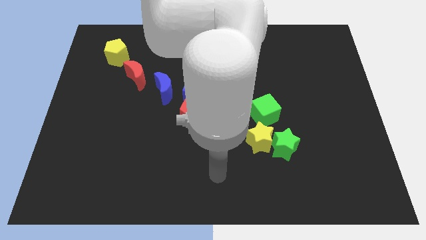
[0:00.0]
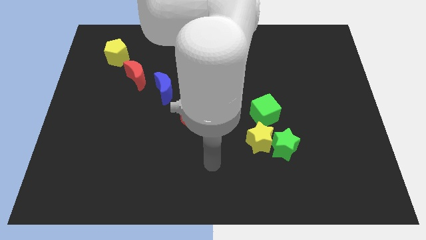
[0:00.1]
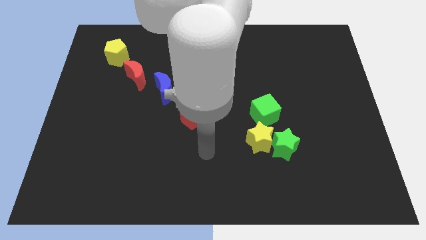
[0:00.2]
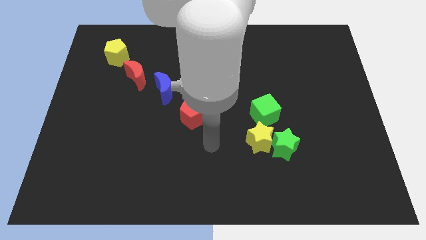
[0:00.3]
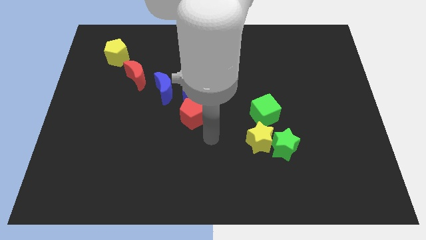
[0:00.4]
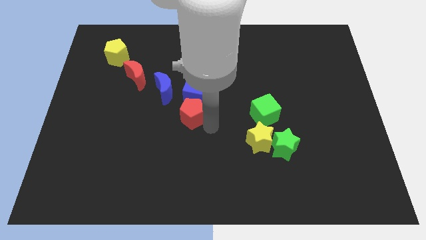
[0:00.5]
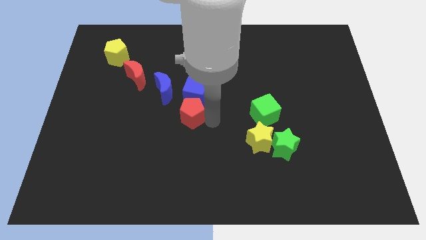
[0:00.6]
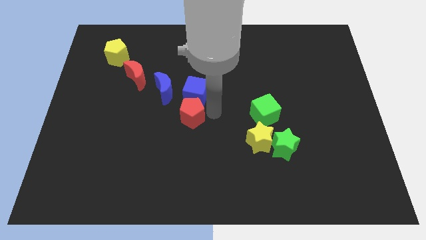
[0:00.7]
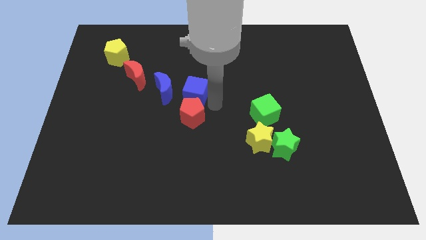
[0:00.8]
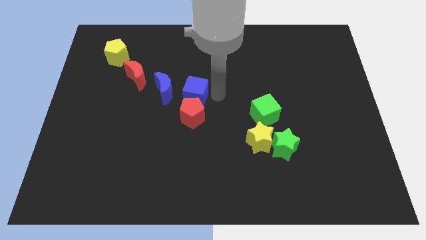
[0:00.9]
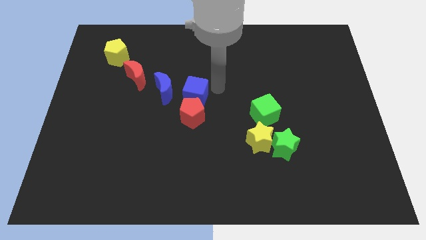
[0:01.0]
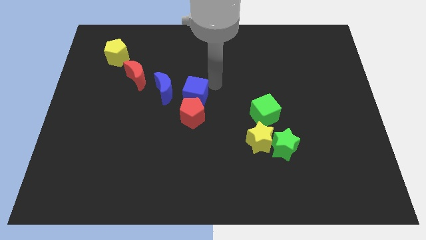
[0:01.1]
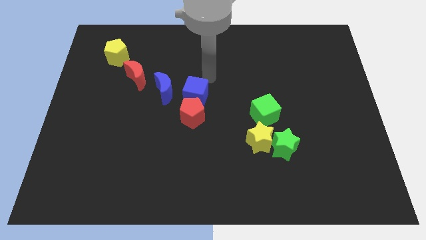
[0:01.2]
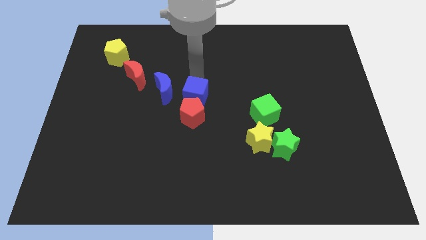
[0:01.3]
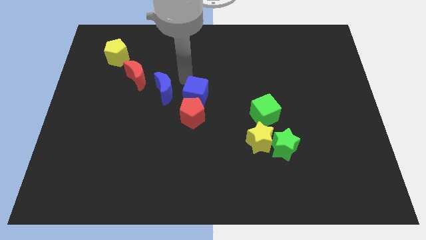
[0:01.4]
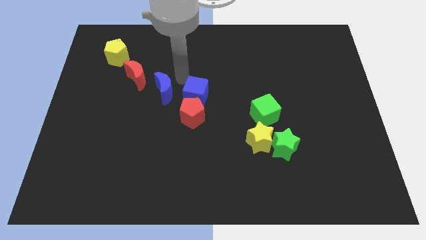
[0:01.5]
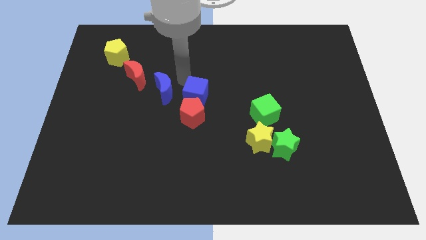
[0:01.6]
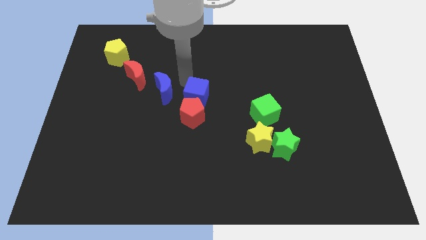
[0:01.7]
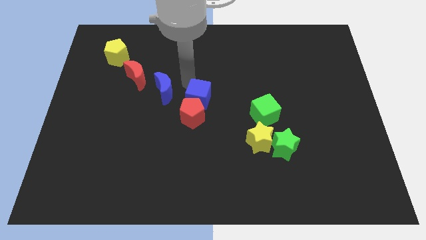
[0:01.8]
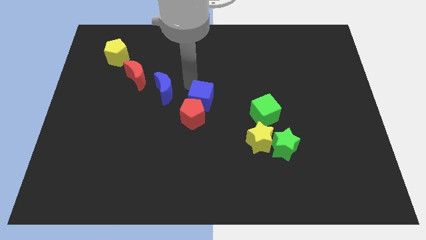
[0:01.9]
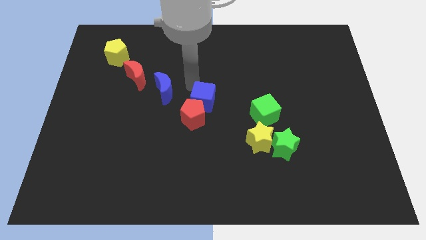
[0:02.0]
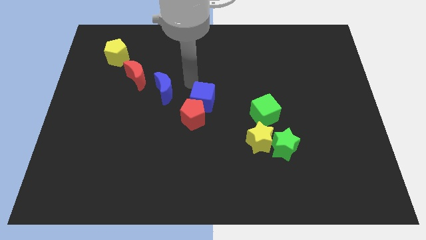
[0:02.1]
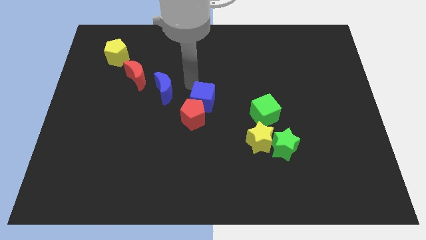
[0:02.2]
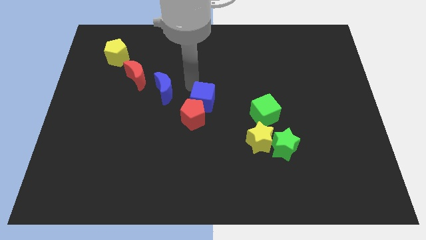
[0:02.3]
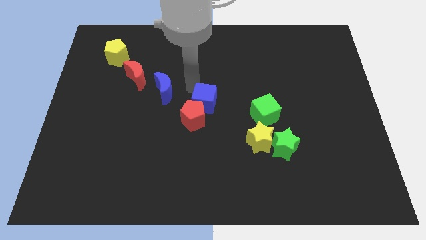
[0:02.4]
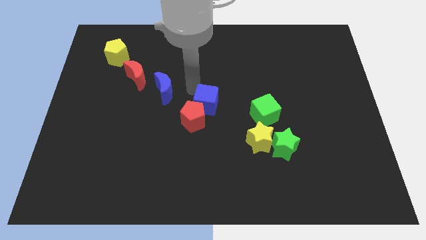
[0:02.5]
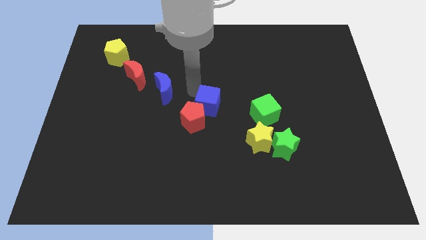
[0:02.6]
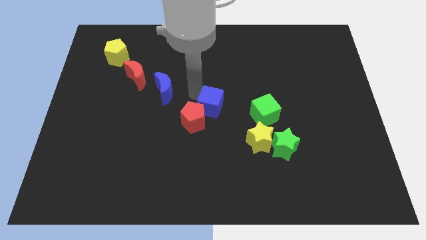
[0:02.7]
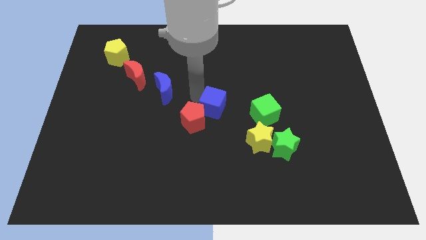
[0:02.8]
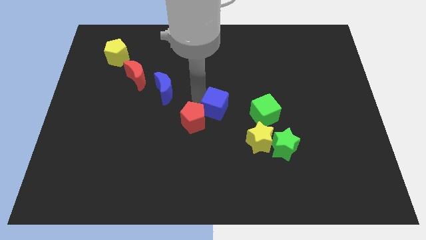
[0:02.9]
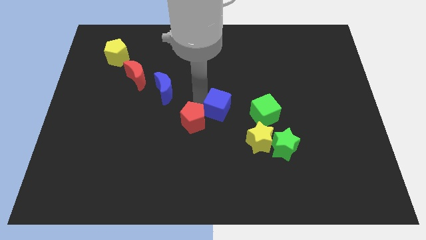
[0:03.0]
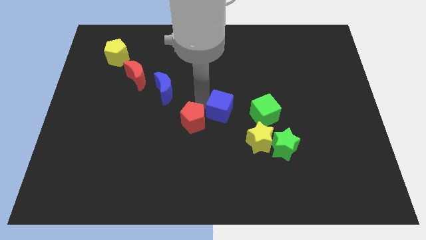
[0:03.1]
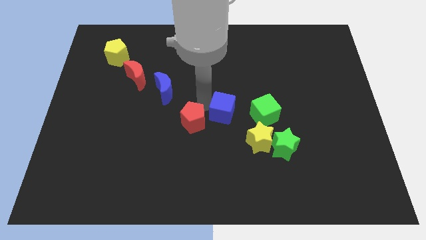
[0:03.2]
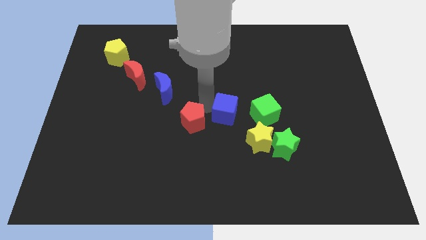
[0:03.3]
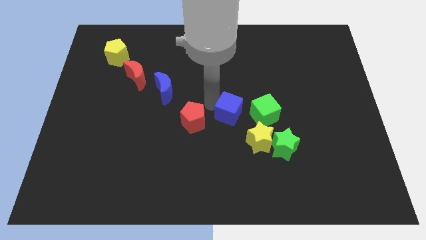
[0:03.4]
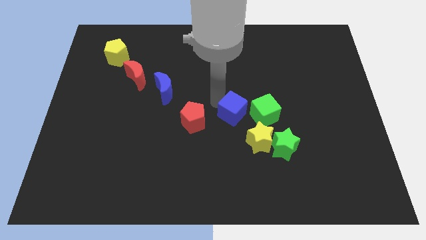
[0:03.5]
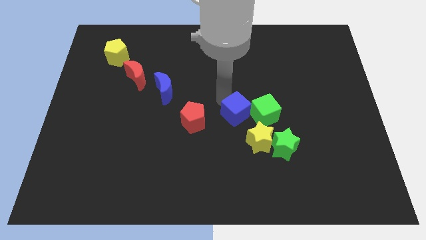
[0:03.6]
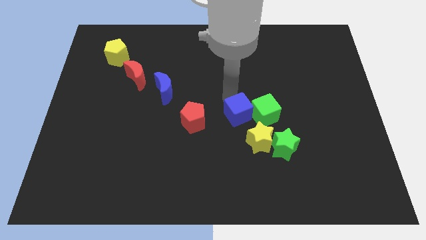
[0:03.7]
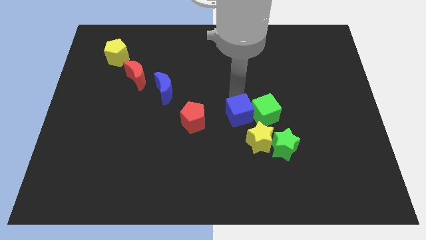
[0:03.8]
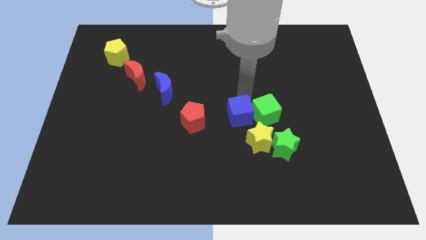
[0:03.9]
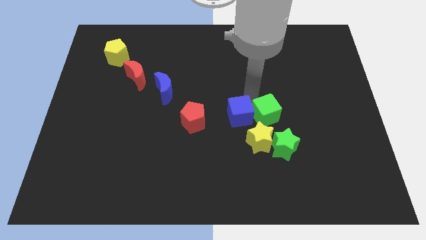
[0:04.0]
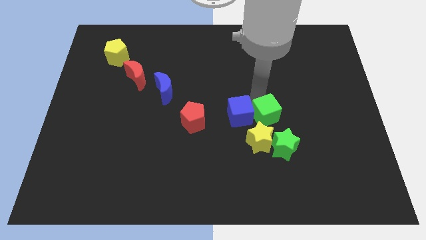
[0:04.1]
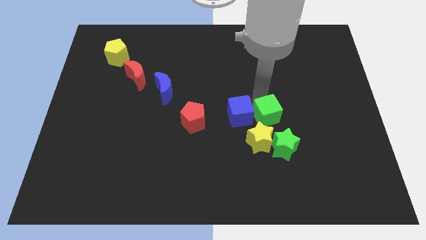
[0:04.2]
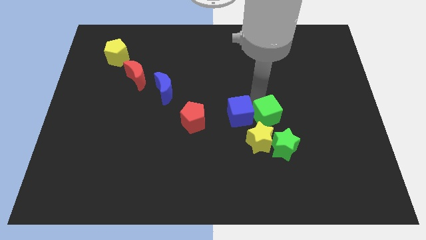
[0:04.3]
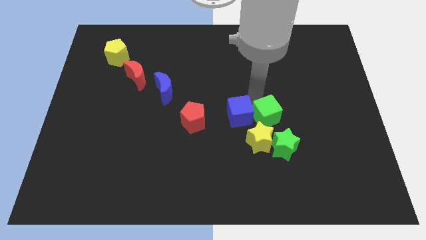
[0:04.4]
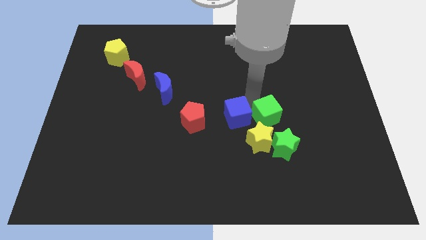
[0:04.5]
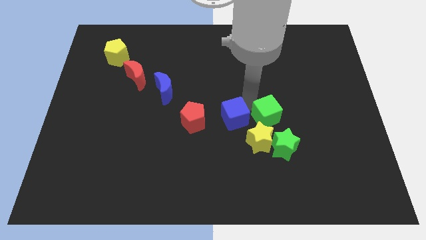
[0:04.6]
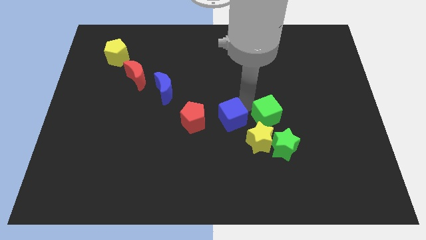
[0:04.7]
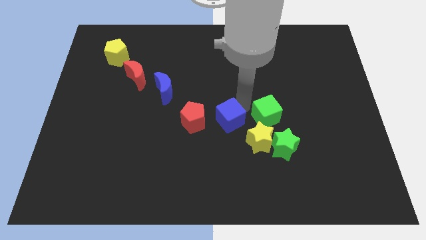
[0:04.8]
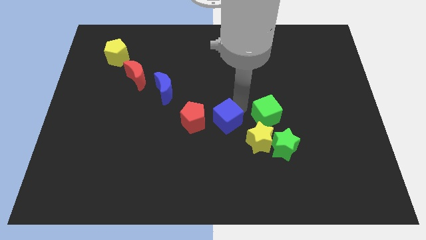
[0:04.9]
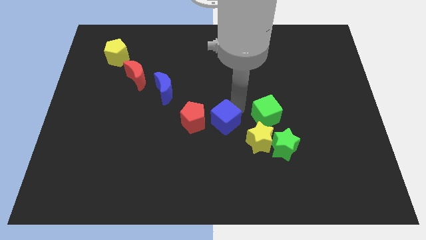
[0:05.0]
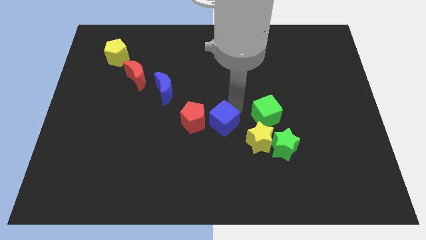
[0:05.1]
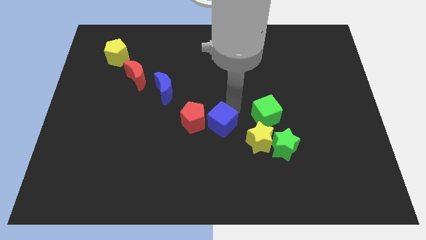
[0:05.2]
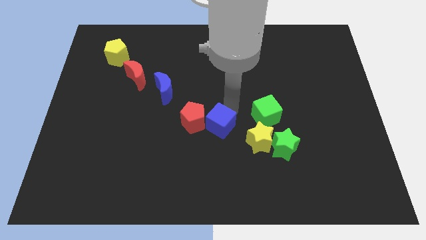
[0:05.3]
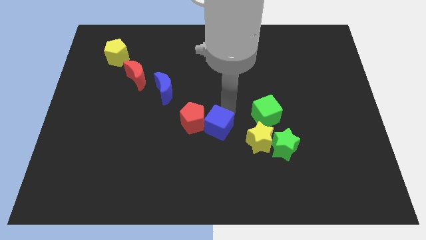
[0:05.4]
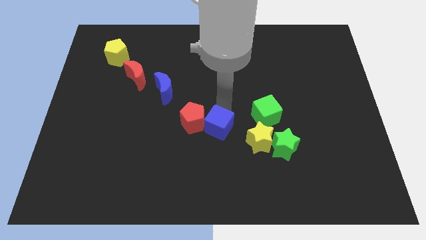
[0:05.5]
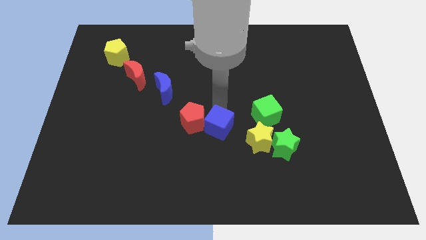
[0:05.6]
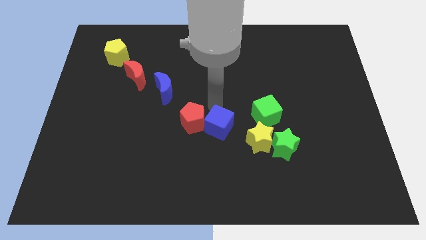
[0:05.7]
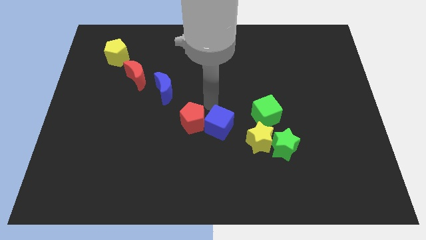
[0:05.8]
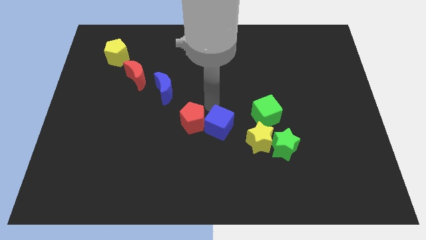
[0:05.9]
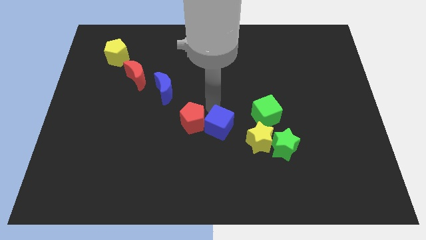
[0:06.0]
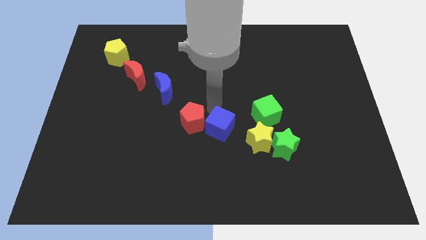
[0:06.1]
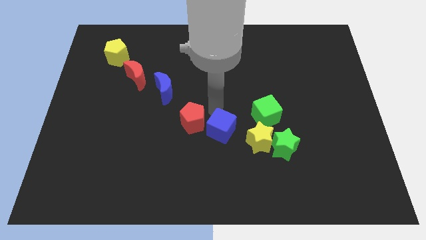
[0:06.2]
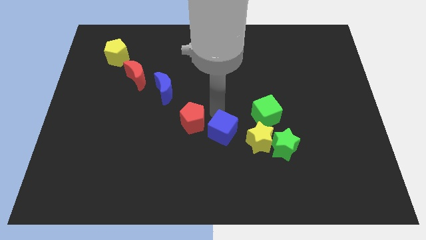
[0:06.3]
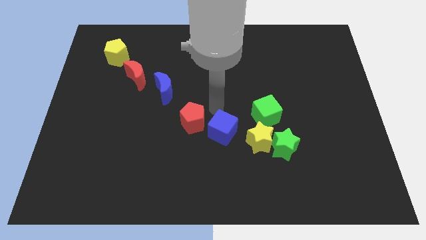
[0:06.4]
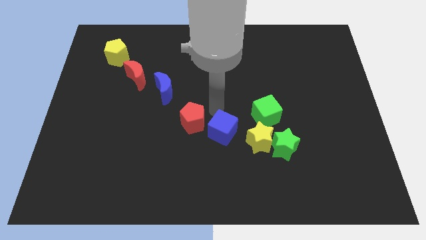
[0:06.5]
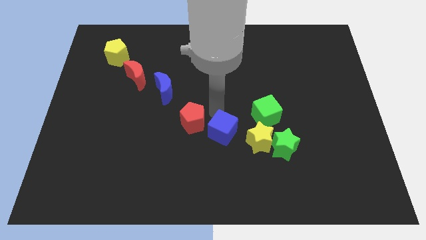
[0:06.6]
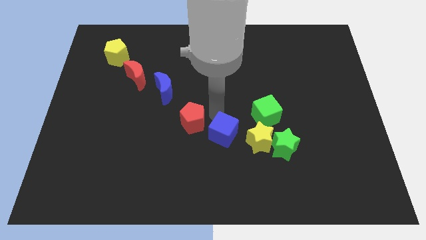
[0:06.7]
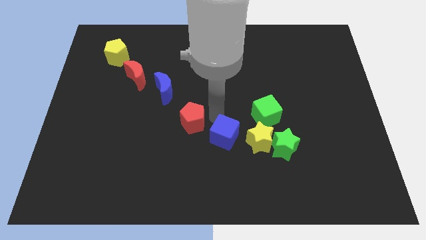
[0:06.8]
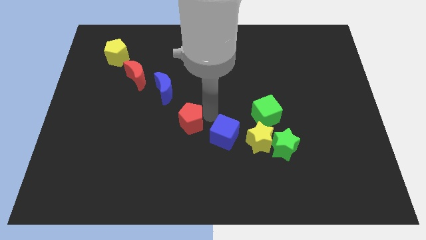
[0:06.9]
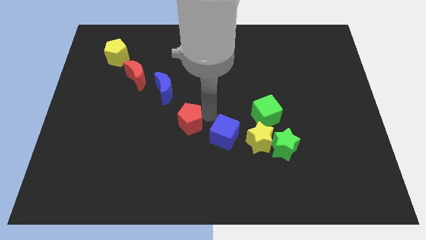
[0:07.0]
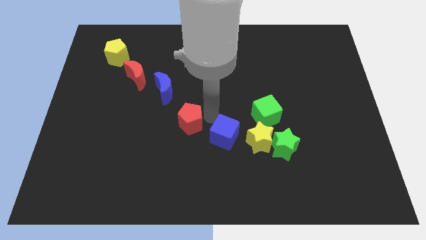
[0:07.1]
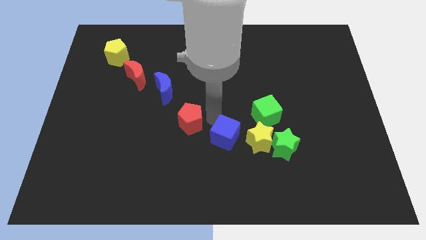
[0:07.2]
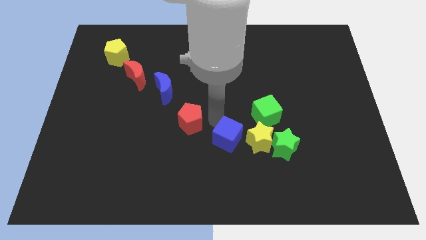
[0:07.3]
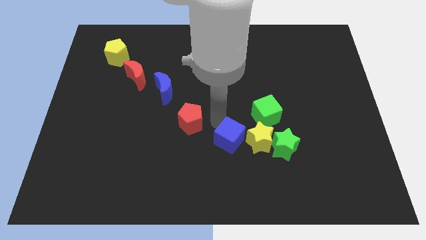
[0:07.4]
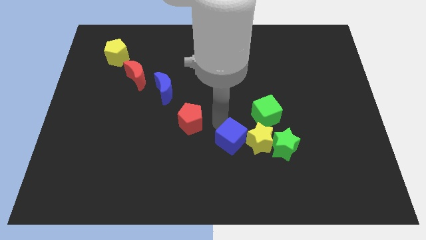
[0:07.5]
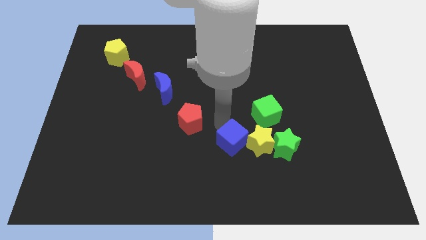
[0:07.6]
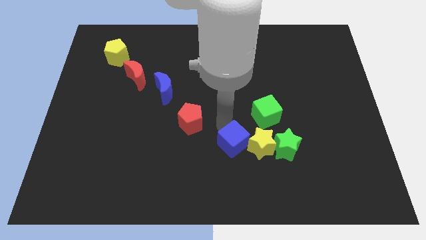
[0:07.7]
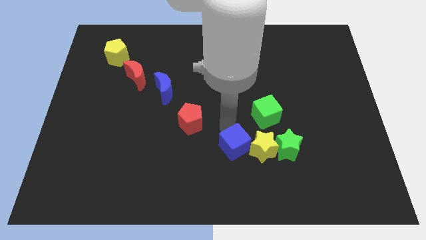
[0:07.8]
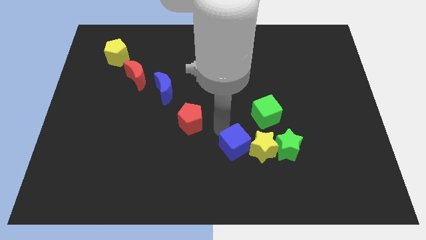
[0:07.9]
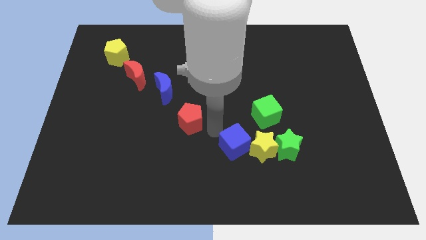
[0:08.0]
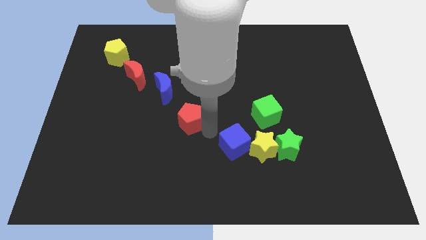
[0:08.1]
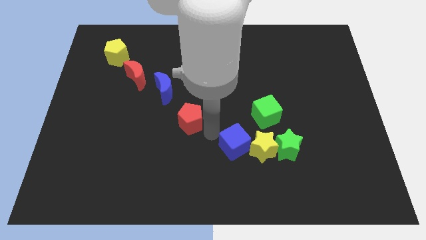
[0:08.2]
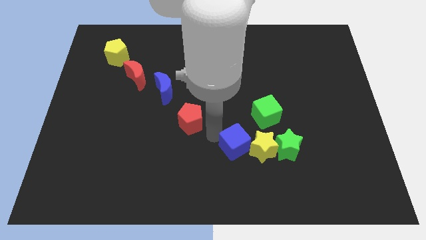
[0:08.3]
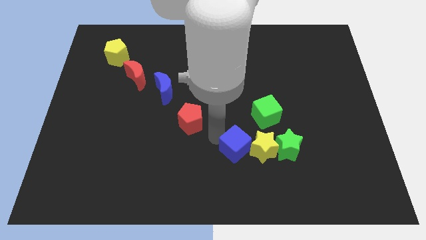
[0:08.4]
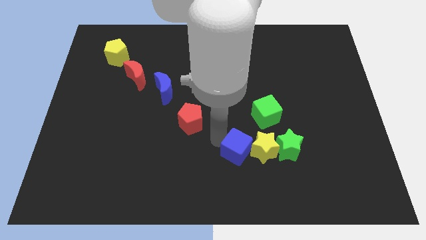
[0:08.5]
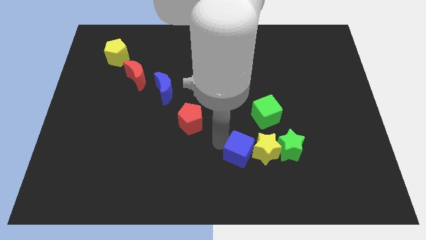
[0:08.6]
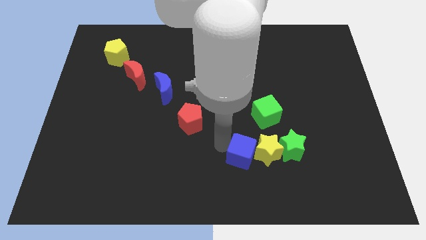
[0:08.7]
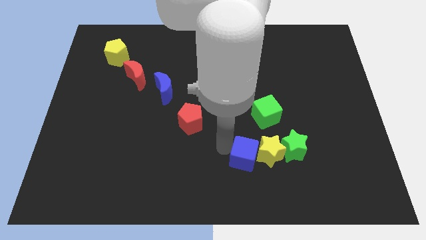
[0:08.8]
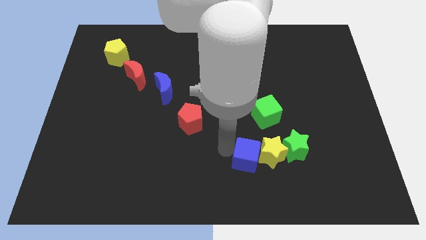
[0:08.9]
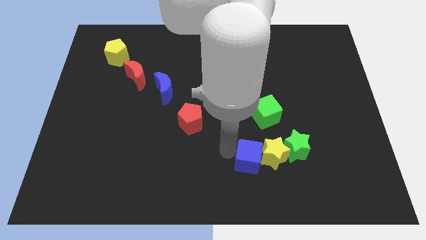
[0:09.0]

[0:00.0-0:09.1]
move the blue cube diagonally down and to the right
